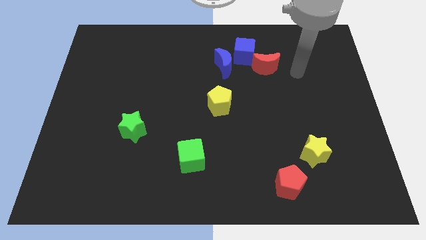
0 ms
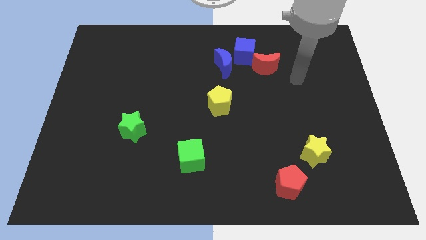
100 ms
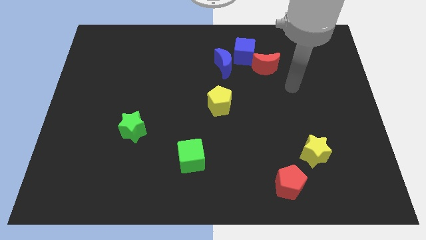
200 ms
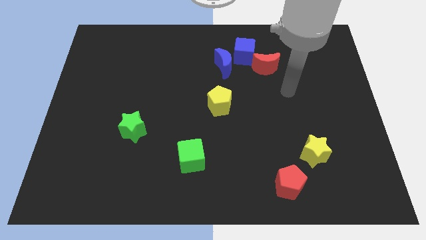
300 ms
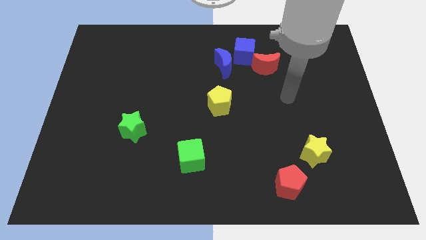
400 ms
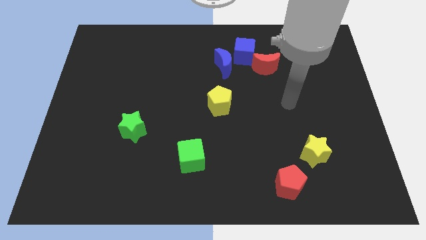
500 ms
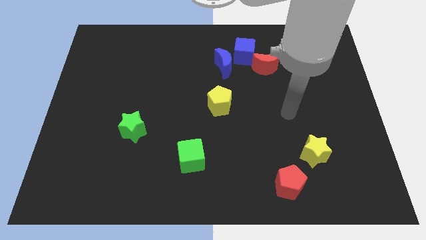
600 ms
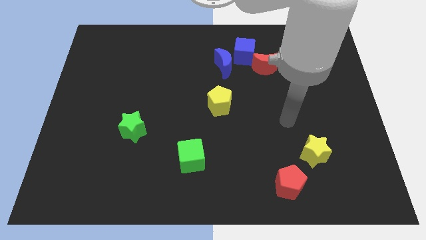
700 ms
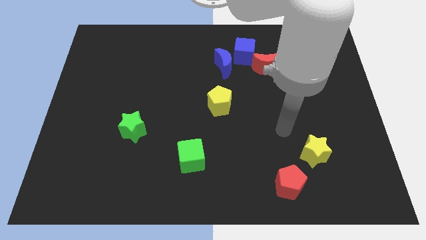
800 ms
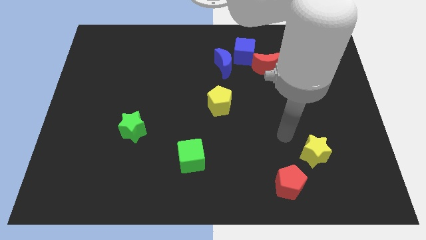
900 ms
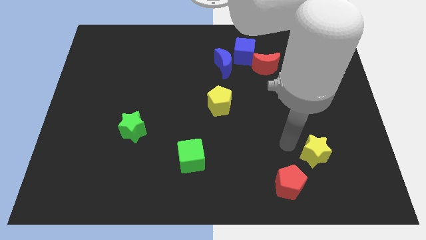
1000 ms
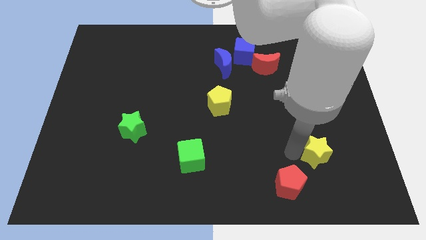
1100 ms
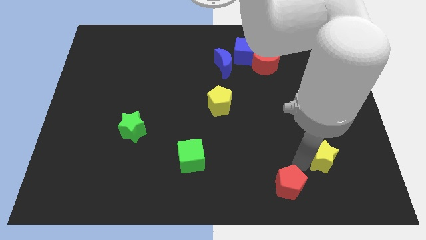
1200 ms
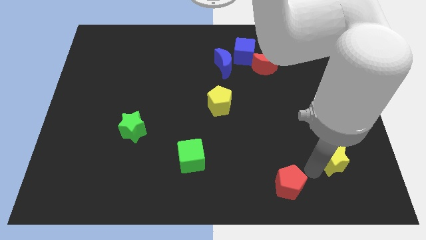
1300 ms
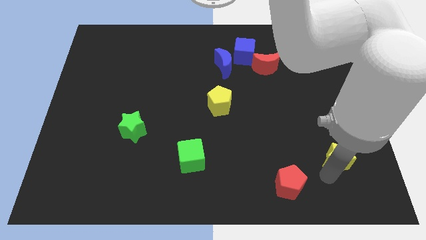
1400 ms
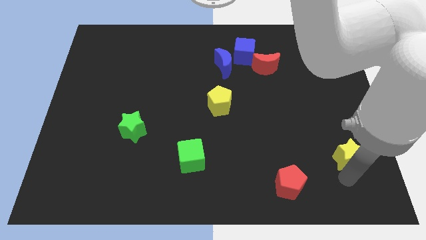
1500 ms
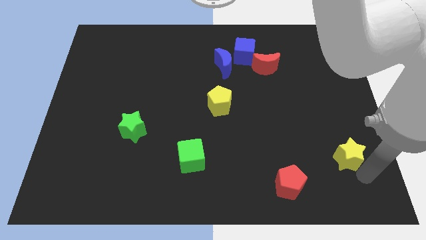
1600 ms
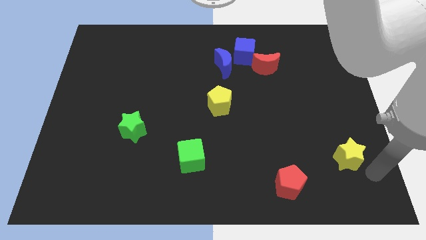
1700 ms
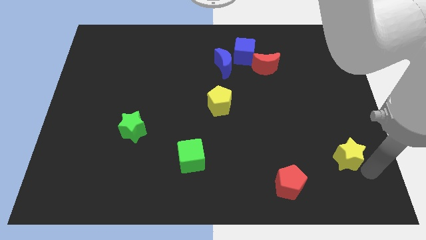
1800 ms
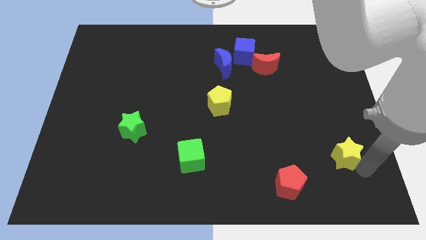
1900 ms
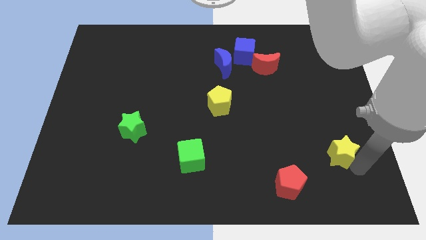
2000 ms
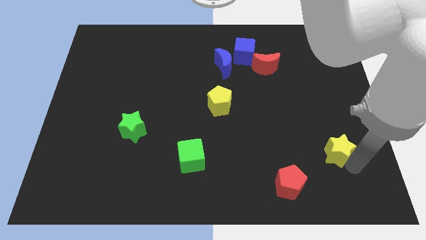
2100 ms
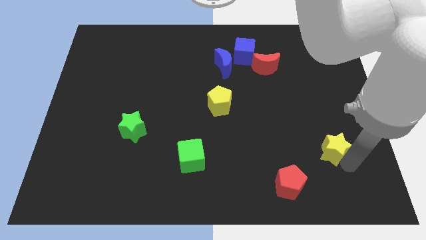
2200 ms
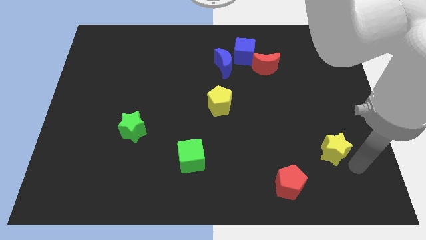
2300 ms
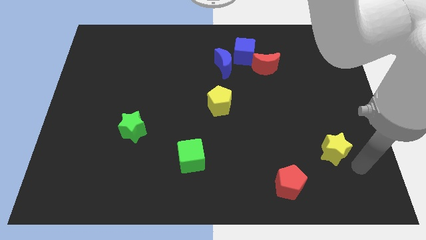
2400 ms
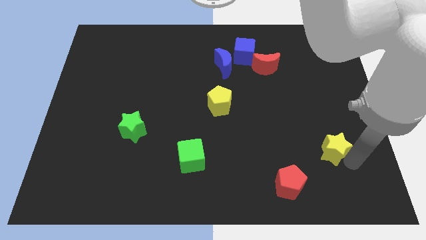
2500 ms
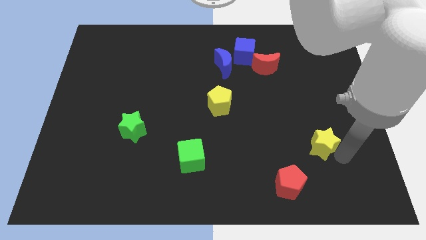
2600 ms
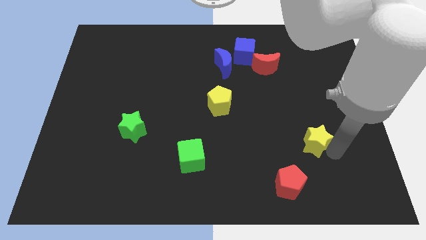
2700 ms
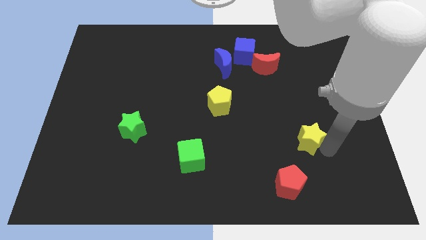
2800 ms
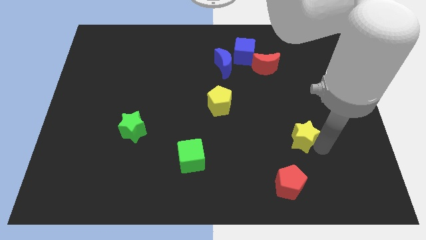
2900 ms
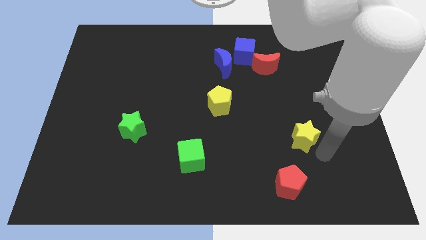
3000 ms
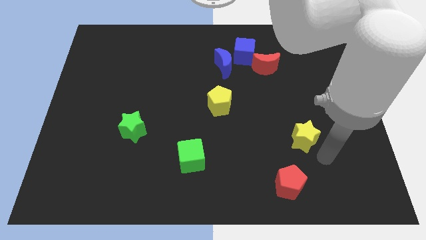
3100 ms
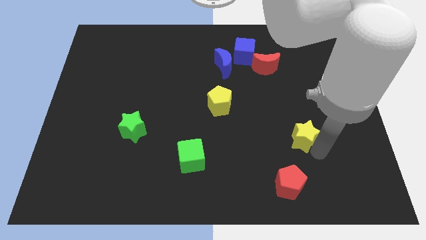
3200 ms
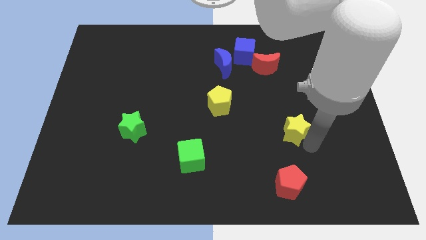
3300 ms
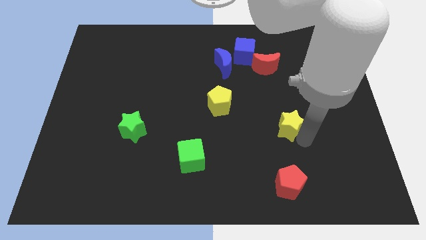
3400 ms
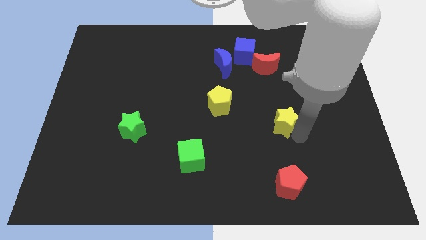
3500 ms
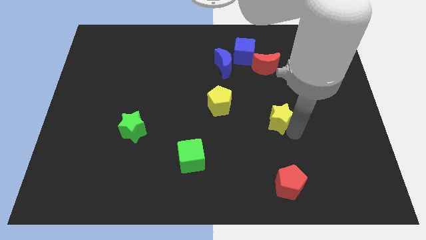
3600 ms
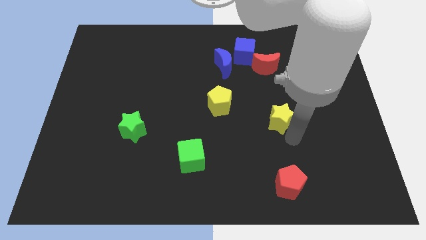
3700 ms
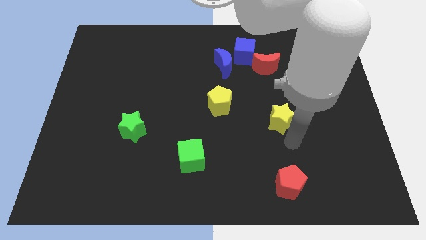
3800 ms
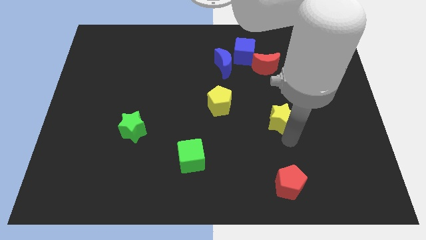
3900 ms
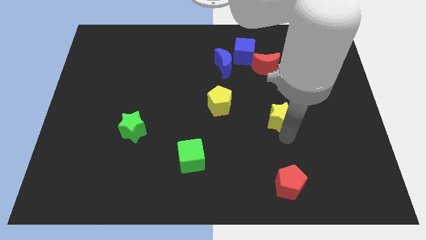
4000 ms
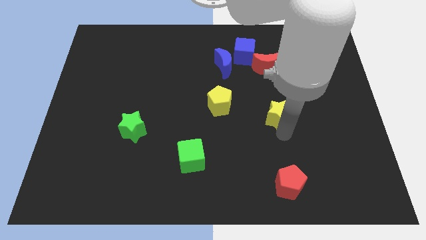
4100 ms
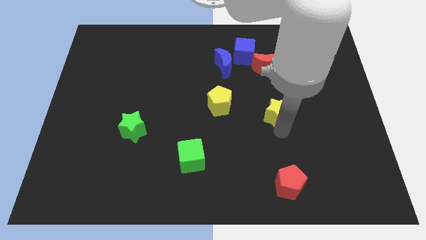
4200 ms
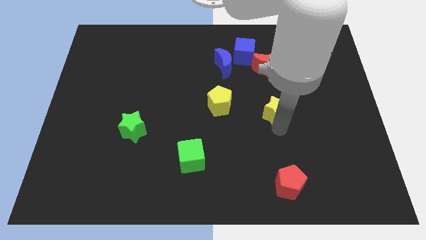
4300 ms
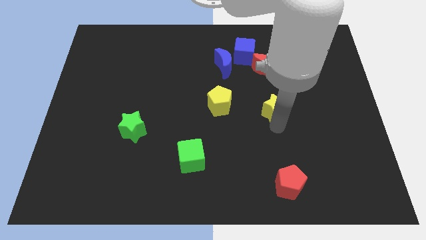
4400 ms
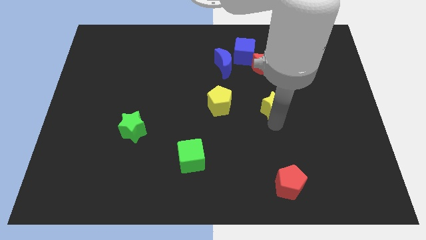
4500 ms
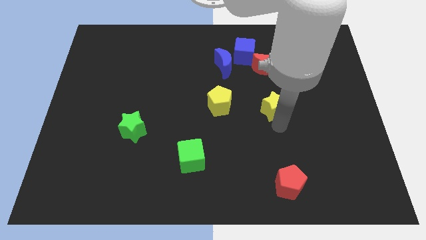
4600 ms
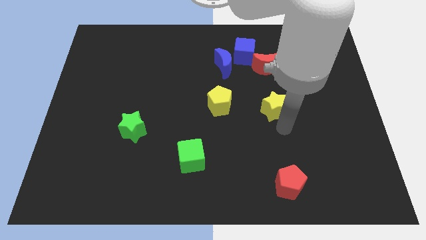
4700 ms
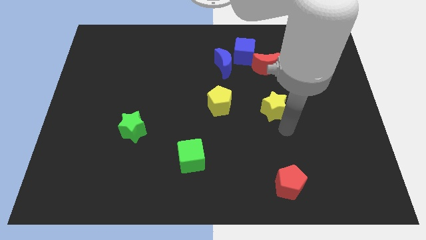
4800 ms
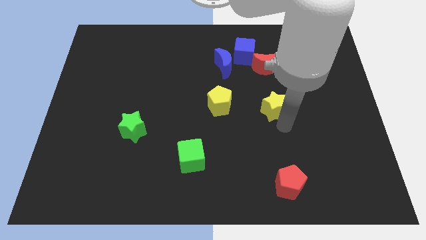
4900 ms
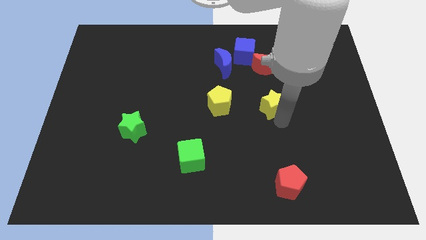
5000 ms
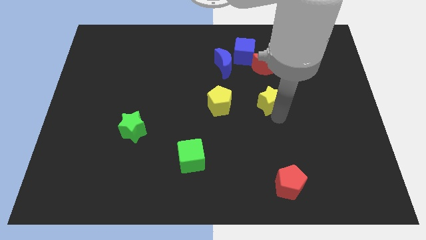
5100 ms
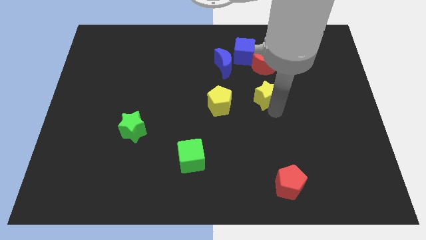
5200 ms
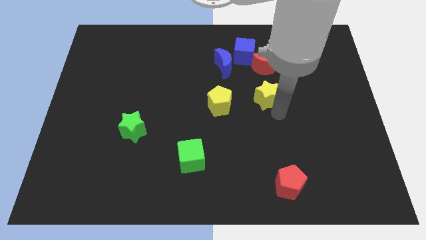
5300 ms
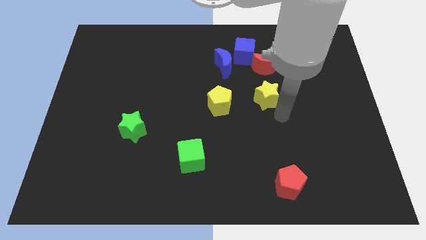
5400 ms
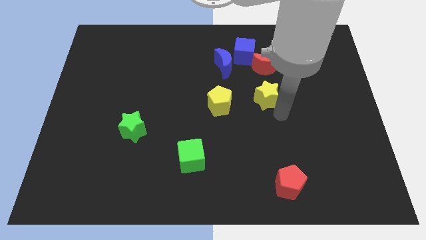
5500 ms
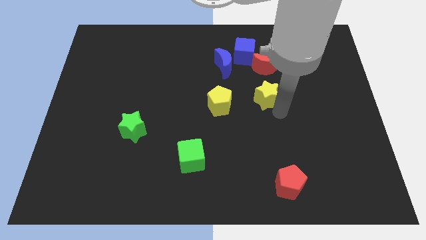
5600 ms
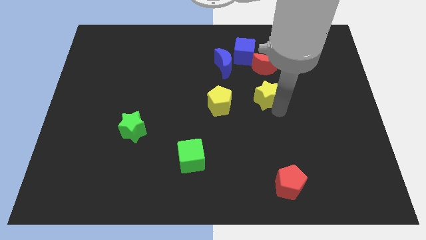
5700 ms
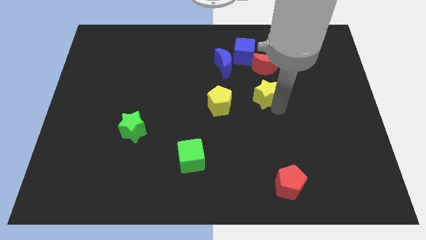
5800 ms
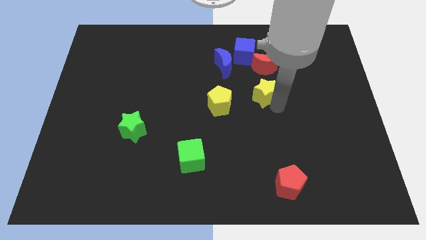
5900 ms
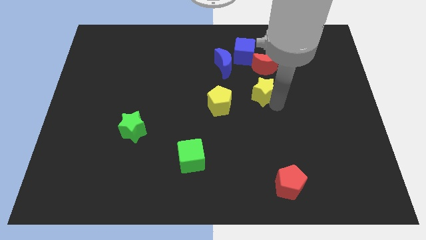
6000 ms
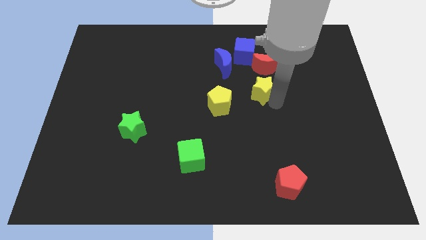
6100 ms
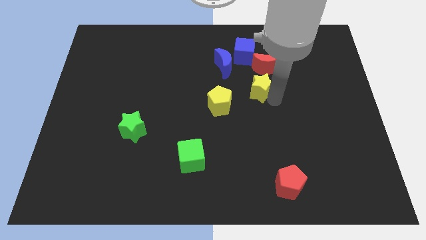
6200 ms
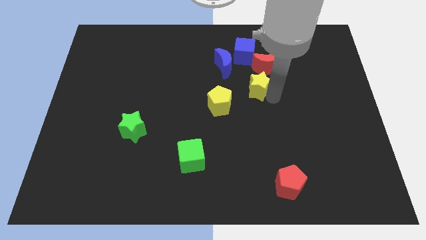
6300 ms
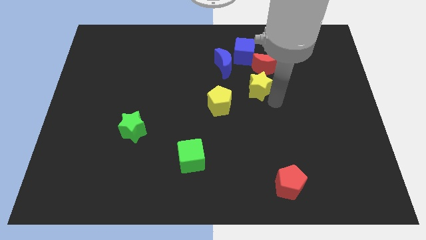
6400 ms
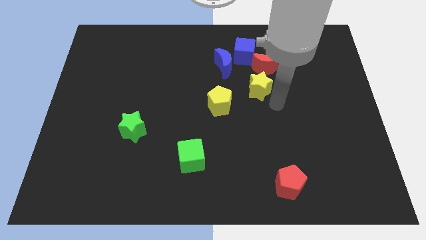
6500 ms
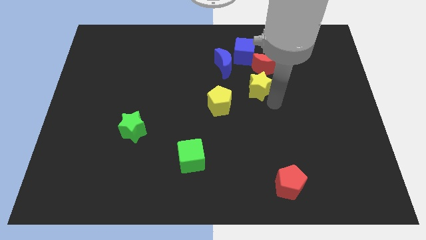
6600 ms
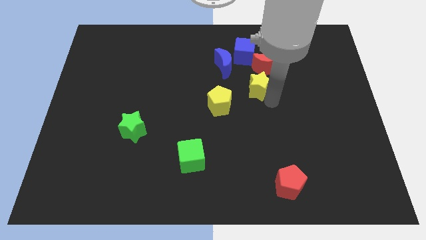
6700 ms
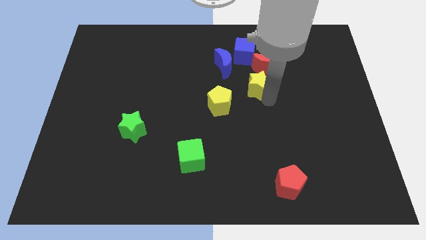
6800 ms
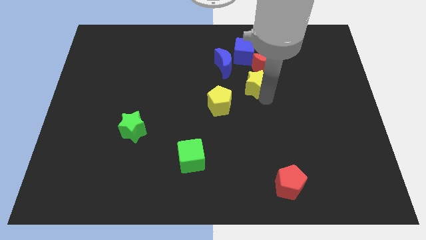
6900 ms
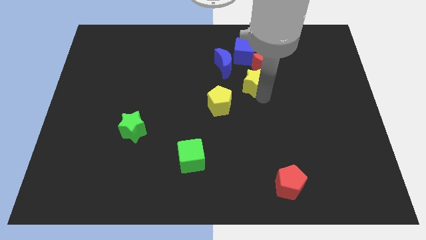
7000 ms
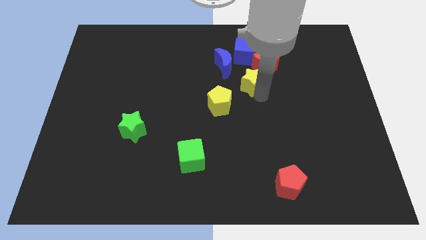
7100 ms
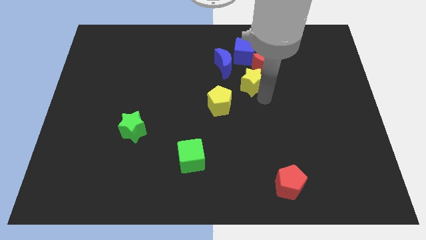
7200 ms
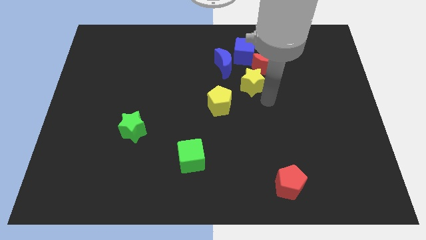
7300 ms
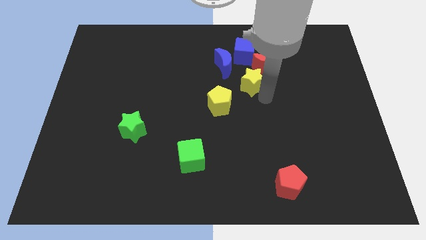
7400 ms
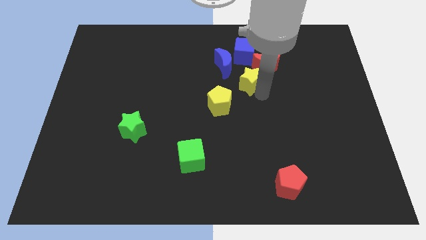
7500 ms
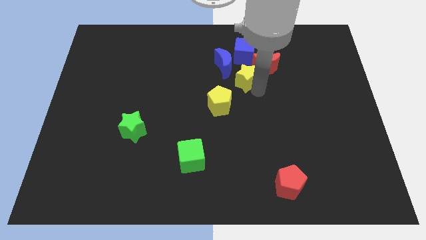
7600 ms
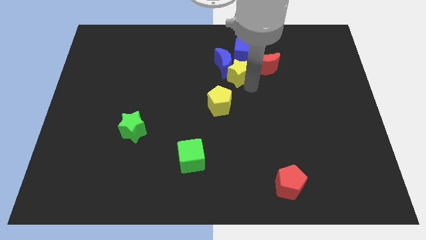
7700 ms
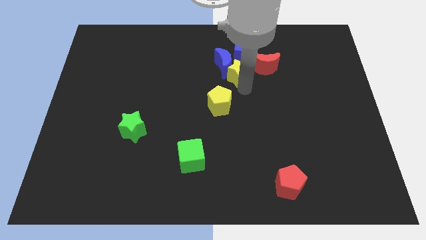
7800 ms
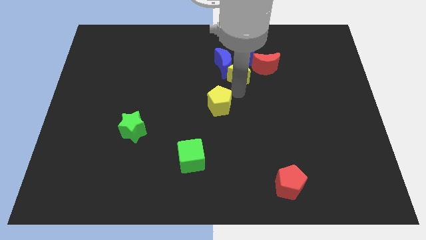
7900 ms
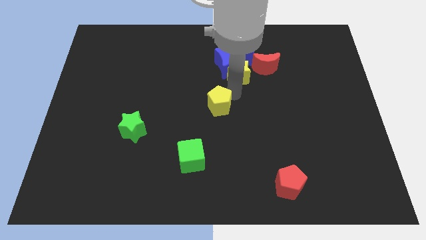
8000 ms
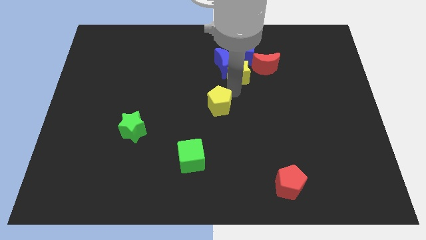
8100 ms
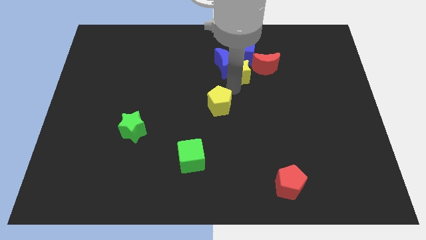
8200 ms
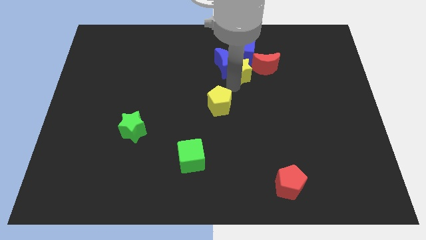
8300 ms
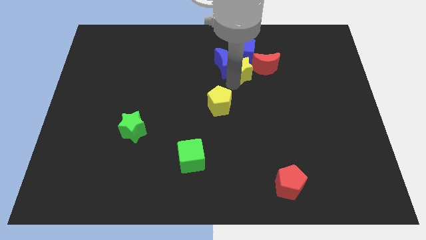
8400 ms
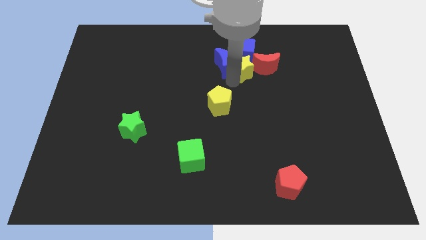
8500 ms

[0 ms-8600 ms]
put the yellow star towards the blue cube
